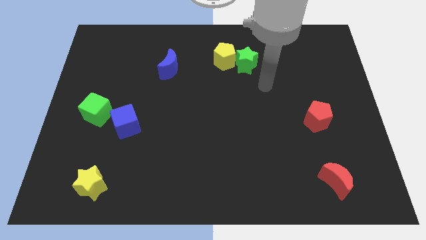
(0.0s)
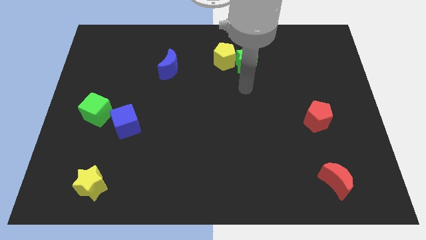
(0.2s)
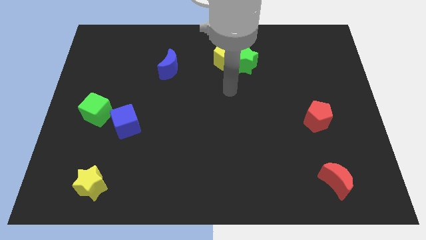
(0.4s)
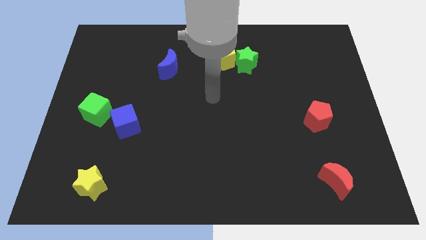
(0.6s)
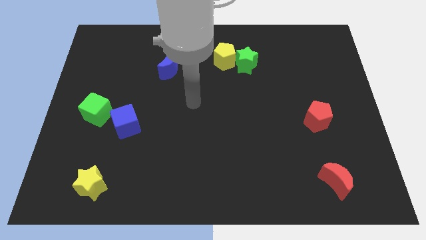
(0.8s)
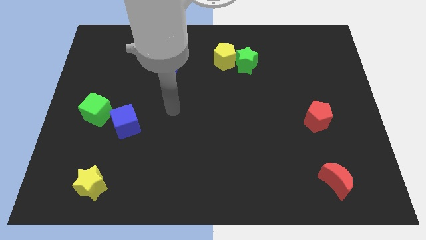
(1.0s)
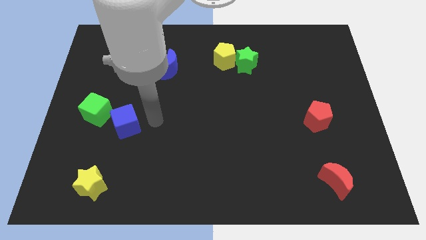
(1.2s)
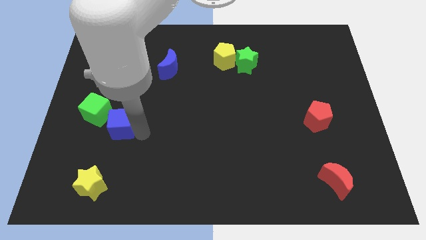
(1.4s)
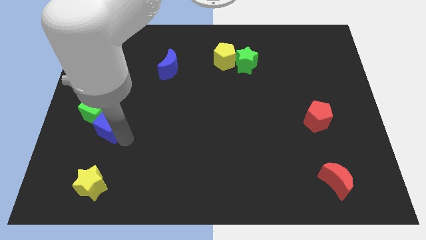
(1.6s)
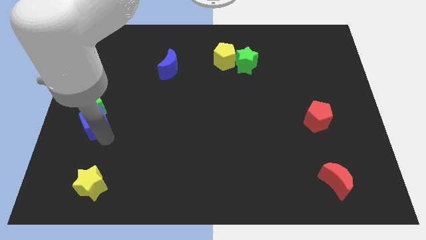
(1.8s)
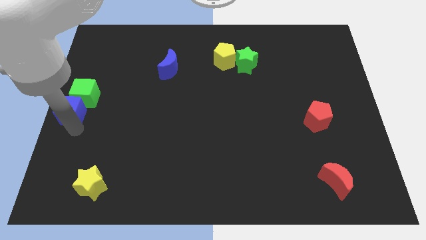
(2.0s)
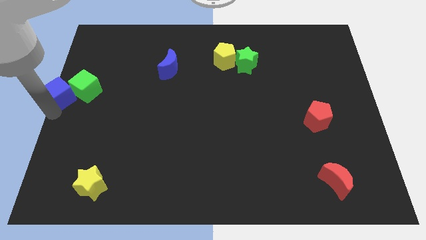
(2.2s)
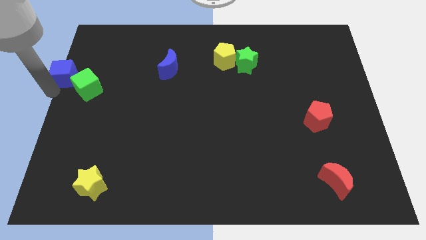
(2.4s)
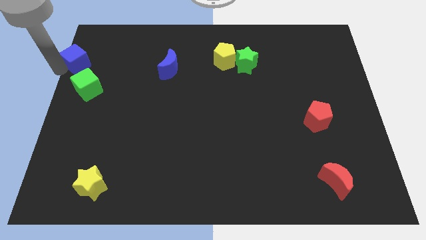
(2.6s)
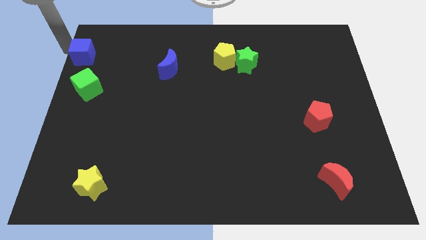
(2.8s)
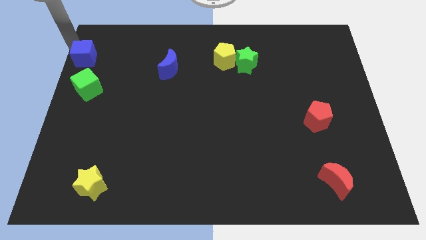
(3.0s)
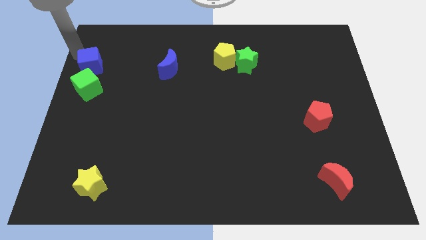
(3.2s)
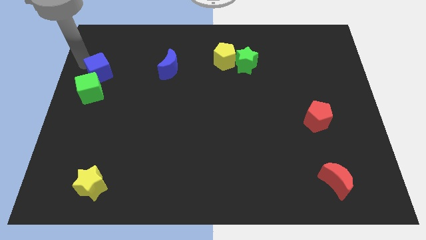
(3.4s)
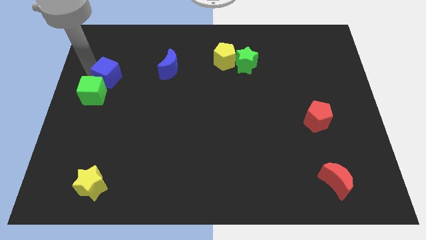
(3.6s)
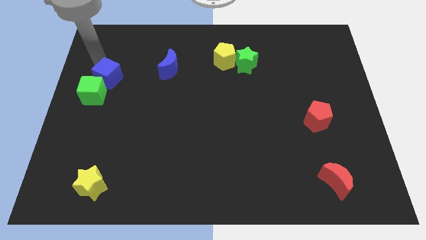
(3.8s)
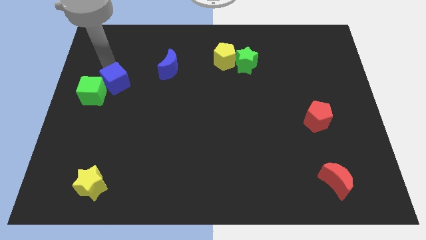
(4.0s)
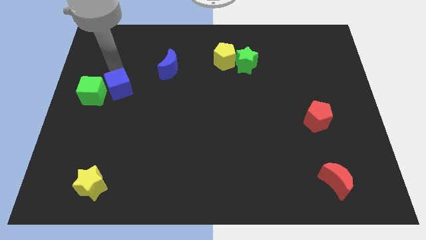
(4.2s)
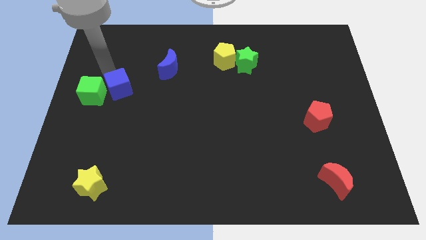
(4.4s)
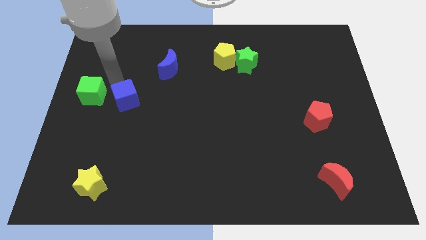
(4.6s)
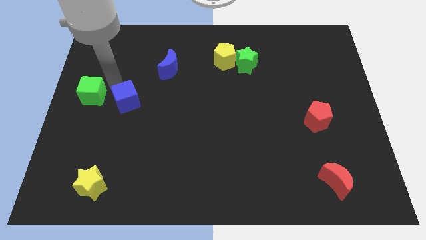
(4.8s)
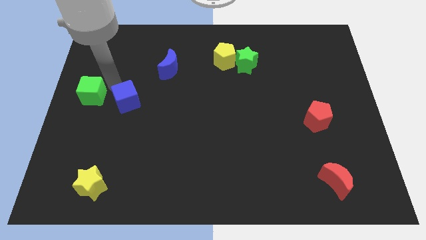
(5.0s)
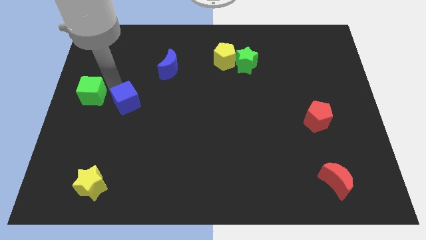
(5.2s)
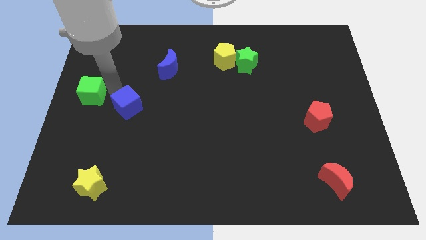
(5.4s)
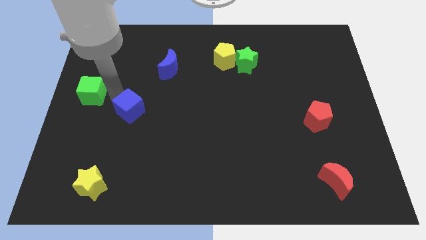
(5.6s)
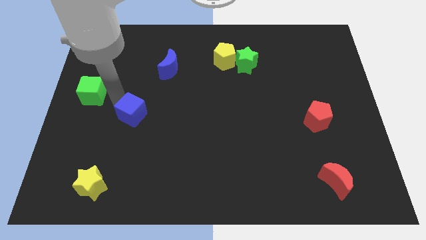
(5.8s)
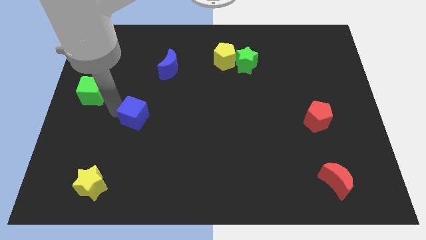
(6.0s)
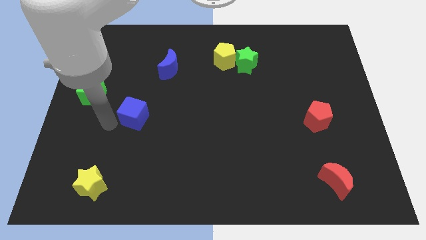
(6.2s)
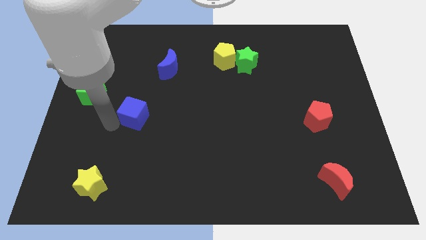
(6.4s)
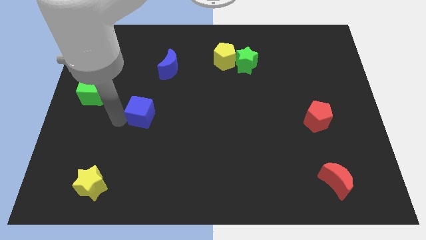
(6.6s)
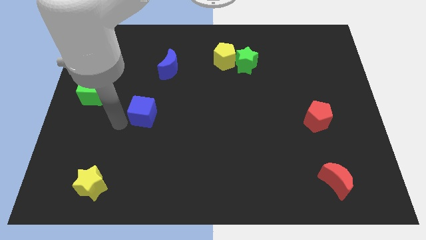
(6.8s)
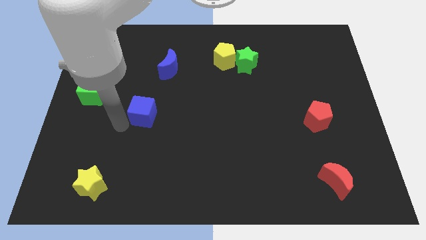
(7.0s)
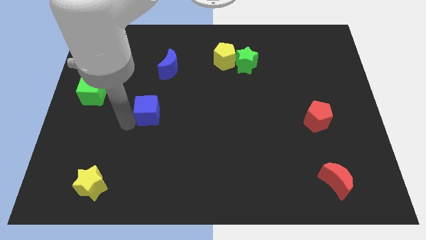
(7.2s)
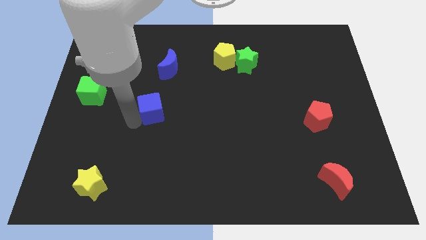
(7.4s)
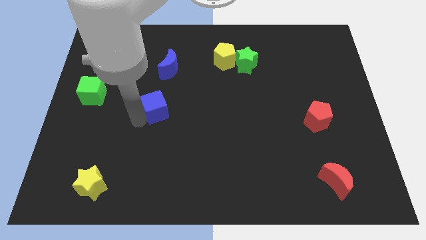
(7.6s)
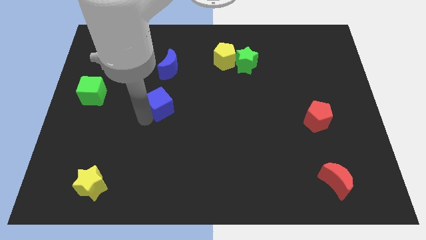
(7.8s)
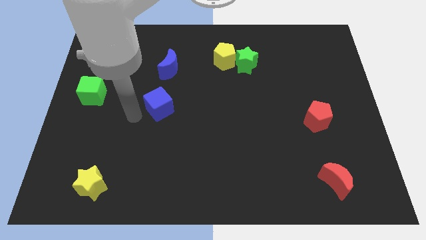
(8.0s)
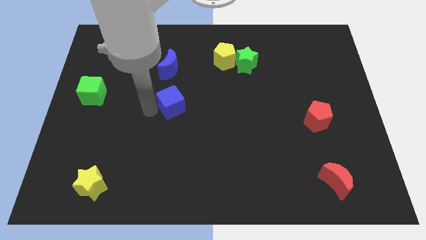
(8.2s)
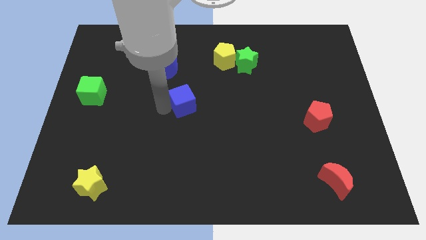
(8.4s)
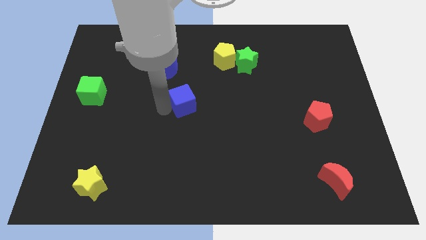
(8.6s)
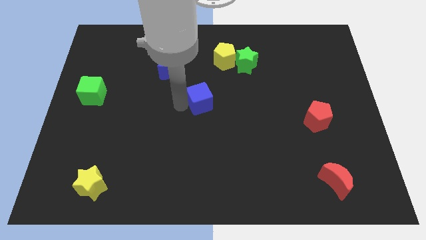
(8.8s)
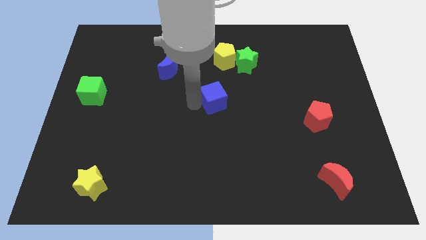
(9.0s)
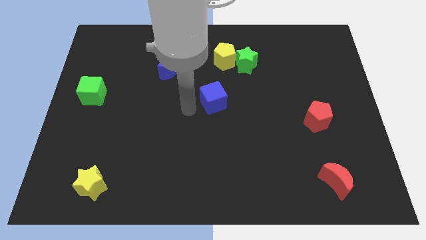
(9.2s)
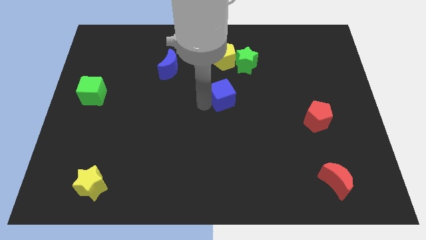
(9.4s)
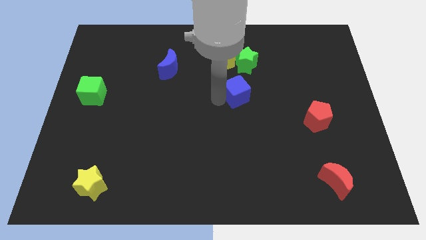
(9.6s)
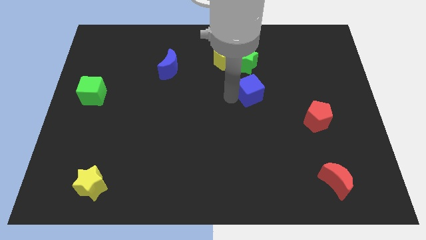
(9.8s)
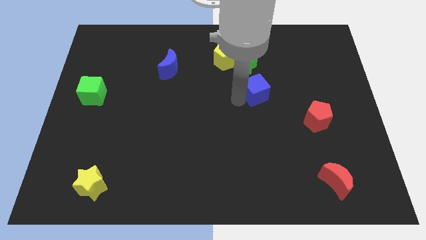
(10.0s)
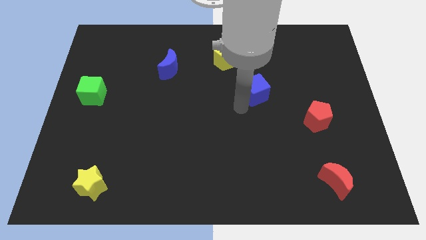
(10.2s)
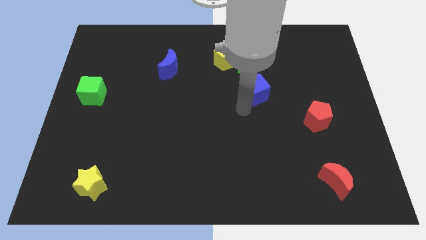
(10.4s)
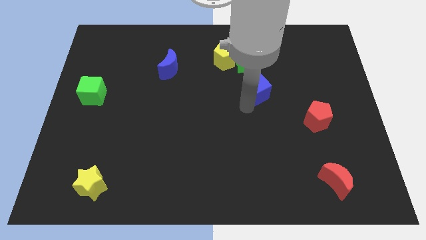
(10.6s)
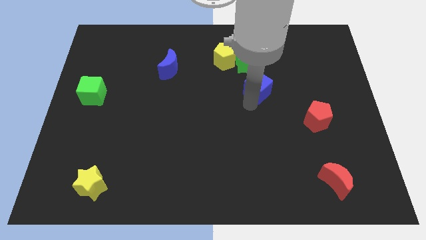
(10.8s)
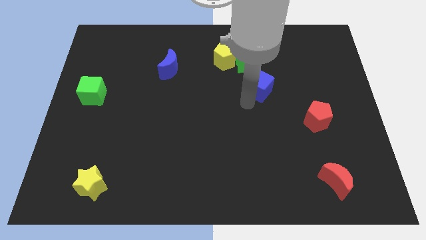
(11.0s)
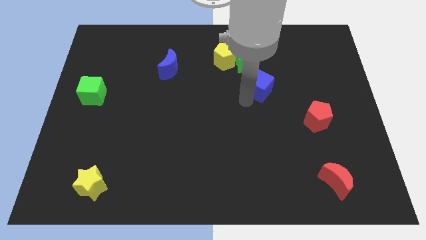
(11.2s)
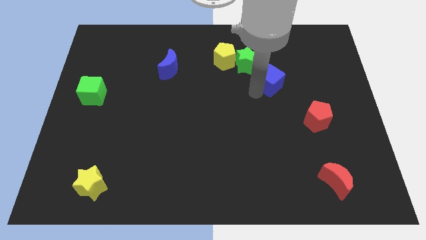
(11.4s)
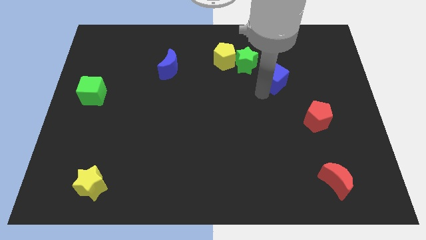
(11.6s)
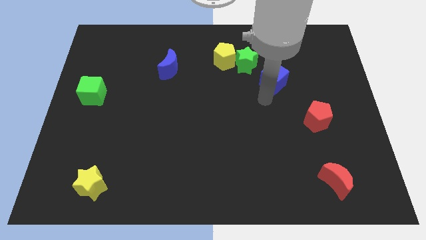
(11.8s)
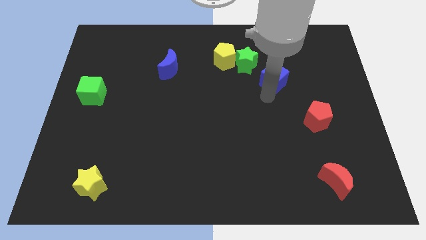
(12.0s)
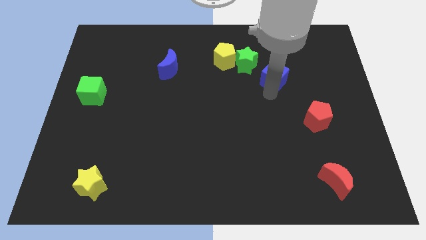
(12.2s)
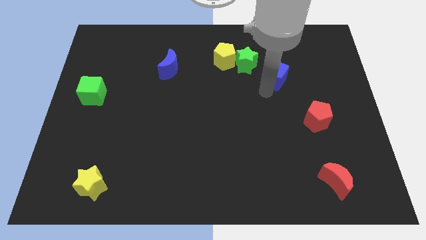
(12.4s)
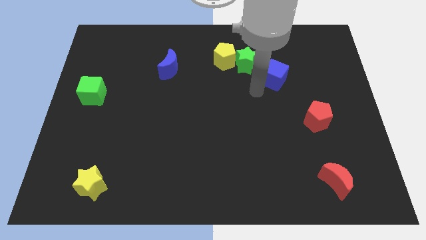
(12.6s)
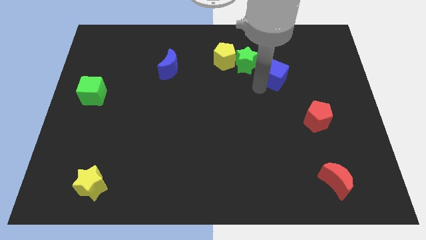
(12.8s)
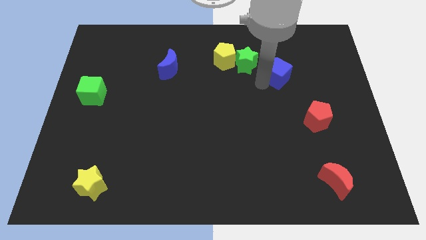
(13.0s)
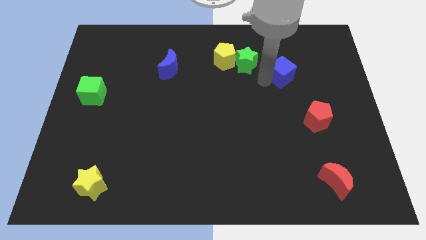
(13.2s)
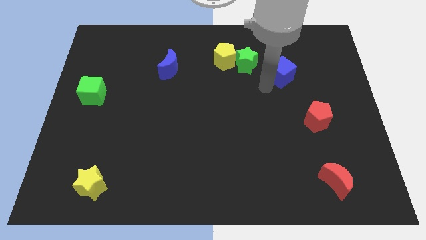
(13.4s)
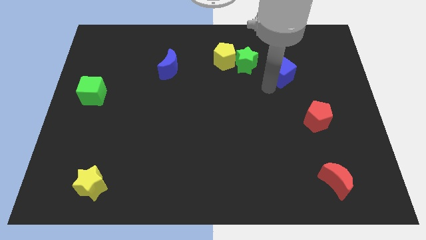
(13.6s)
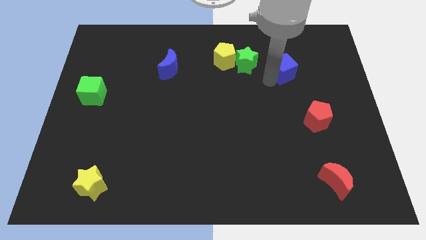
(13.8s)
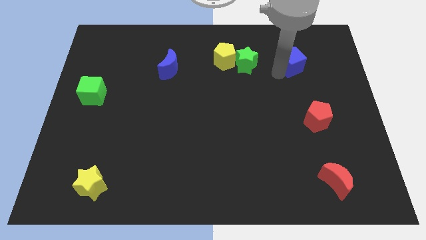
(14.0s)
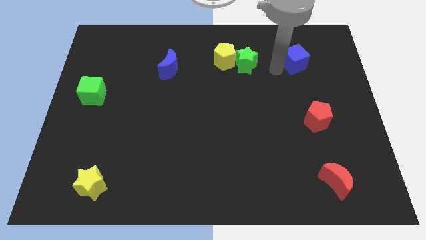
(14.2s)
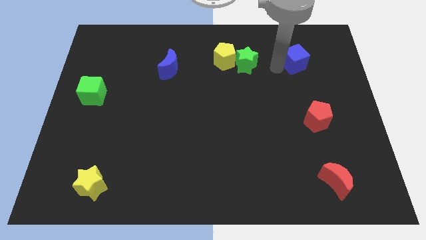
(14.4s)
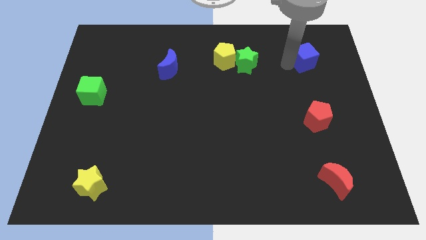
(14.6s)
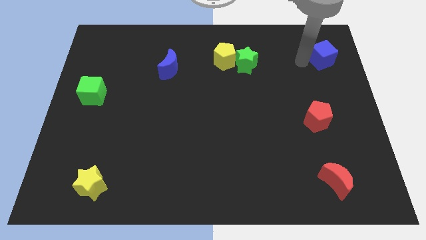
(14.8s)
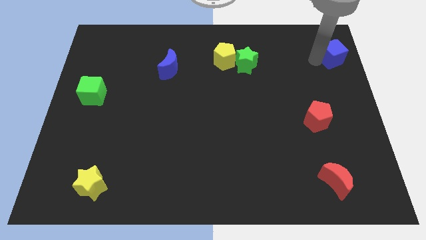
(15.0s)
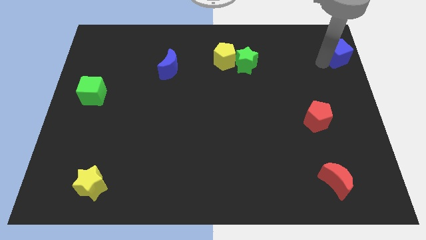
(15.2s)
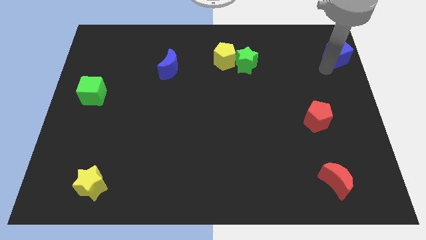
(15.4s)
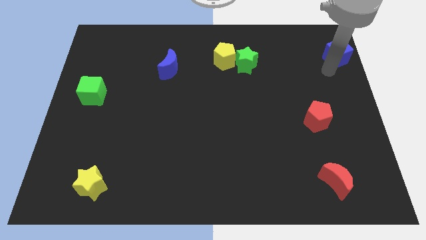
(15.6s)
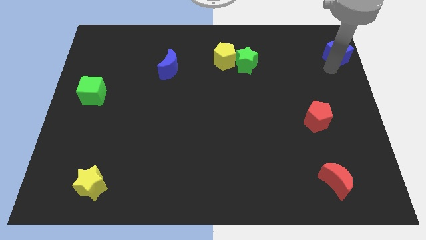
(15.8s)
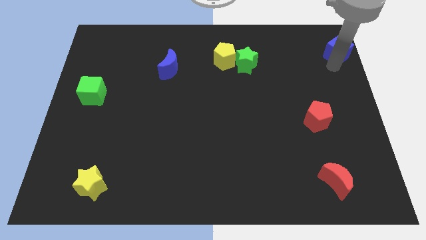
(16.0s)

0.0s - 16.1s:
slide the blue cube to the upper right corner
